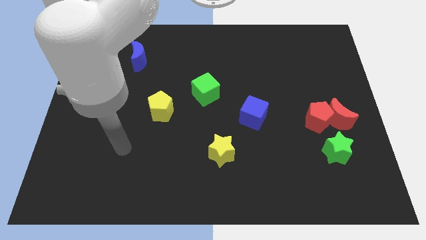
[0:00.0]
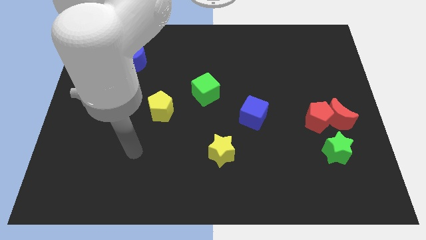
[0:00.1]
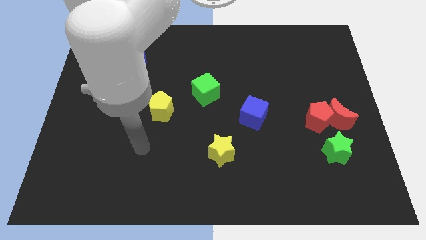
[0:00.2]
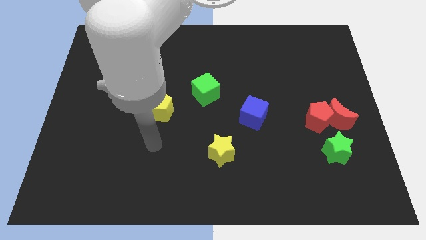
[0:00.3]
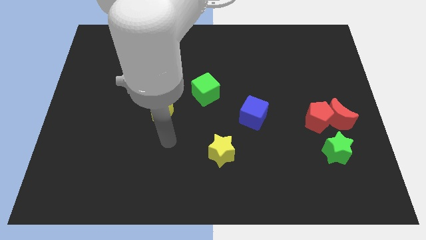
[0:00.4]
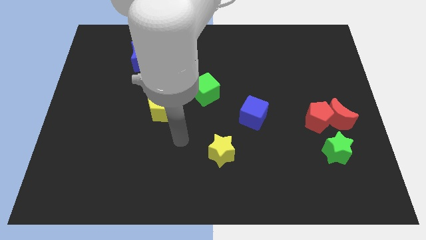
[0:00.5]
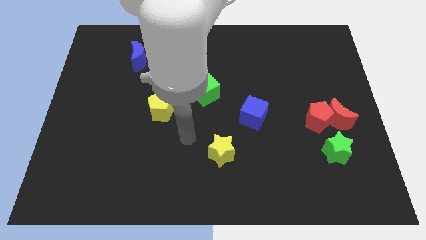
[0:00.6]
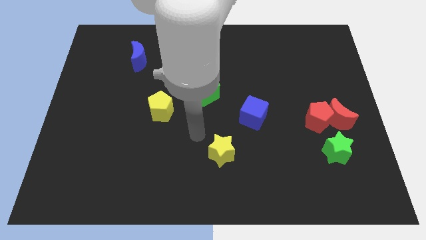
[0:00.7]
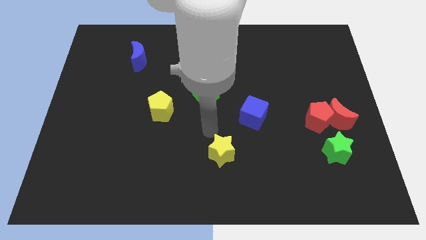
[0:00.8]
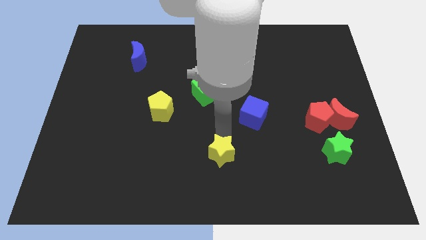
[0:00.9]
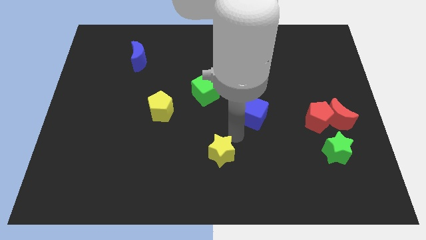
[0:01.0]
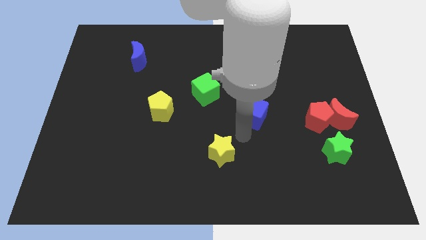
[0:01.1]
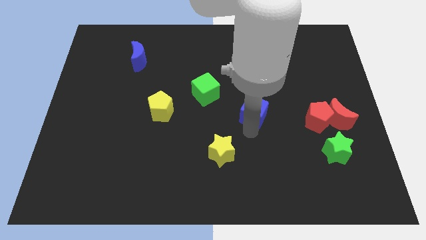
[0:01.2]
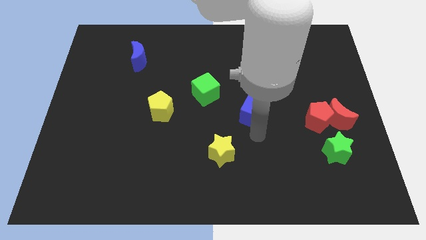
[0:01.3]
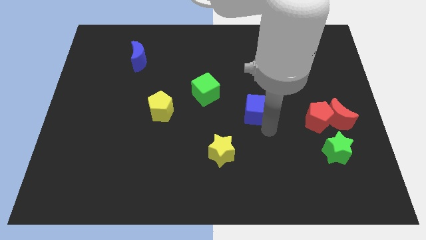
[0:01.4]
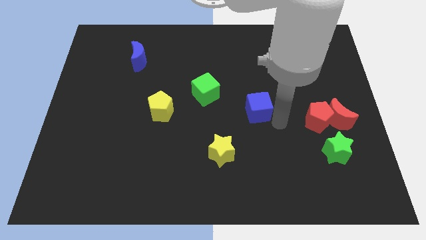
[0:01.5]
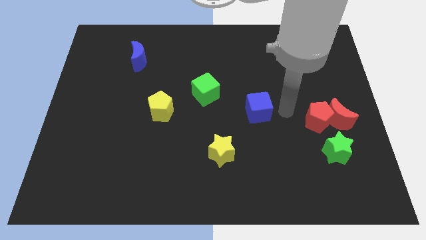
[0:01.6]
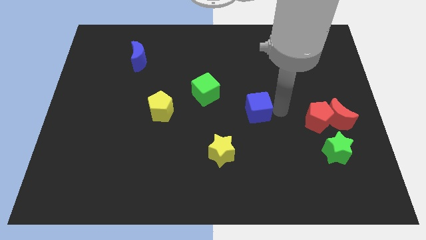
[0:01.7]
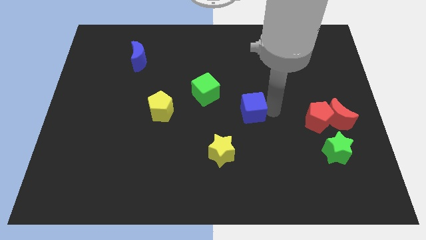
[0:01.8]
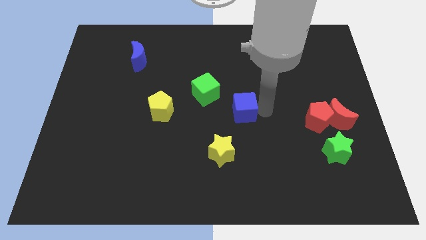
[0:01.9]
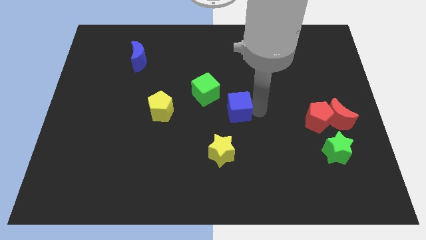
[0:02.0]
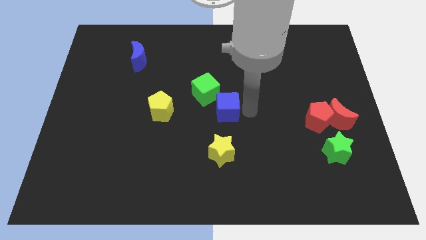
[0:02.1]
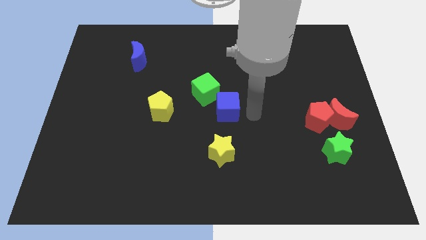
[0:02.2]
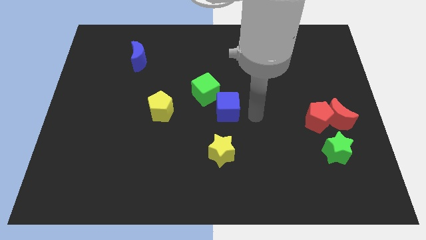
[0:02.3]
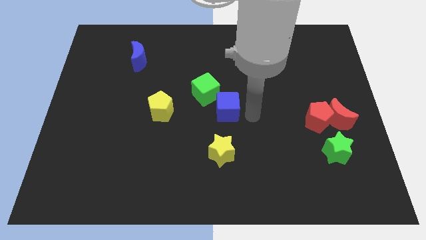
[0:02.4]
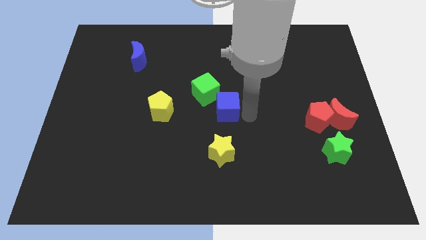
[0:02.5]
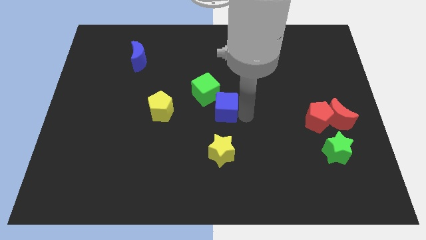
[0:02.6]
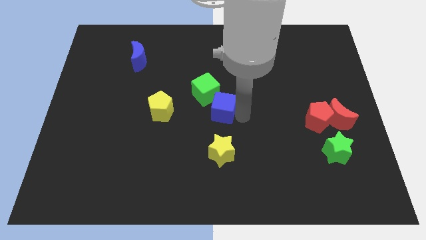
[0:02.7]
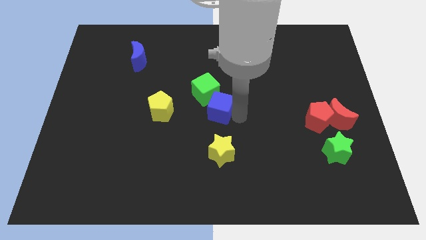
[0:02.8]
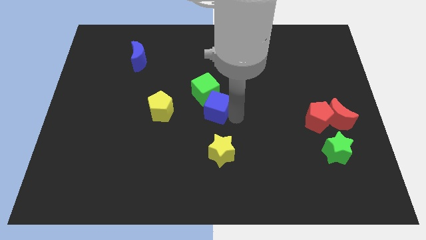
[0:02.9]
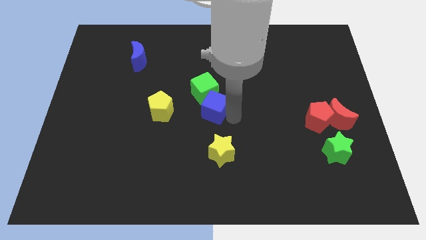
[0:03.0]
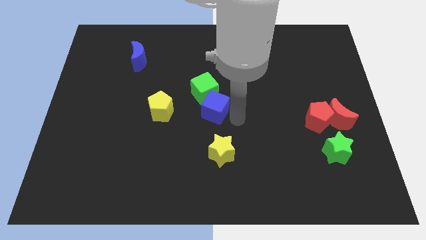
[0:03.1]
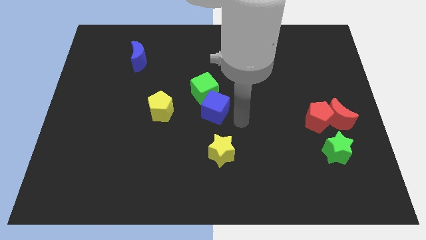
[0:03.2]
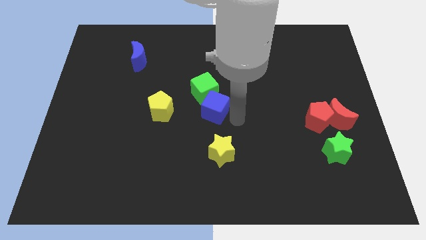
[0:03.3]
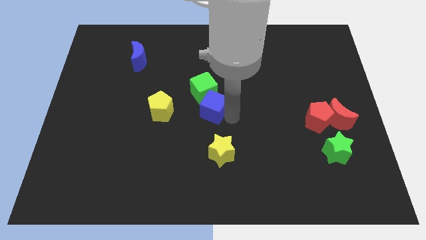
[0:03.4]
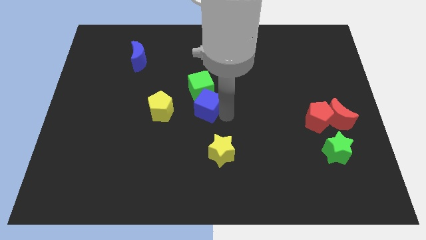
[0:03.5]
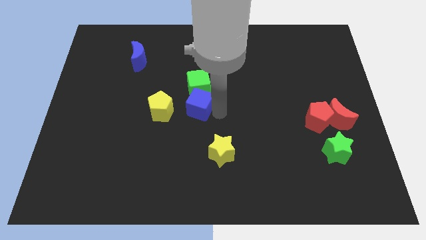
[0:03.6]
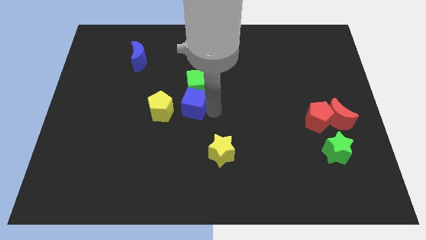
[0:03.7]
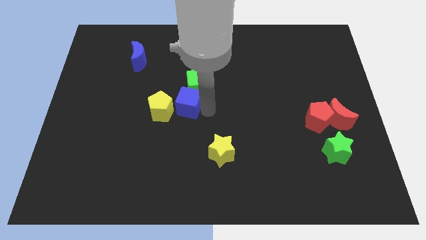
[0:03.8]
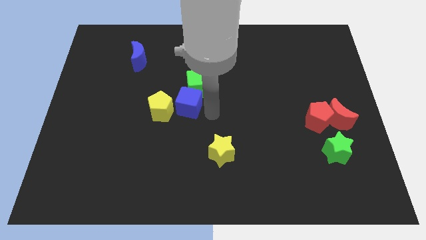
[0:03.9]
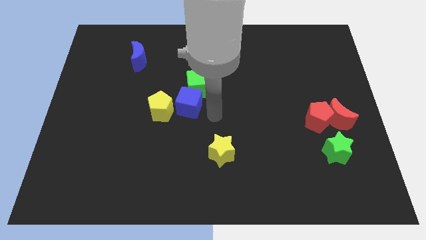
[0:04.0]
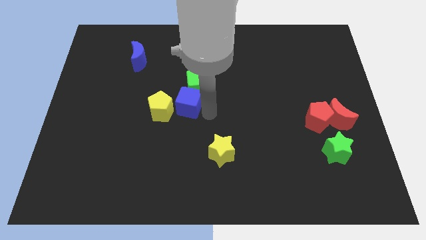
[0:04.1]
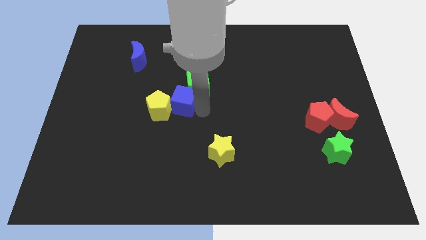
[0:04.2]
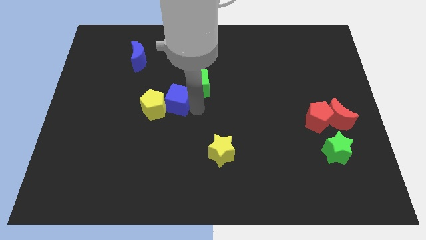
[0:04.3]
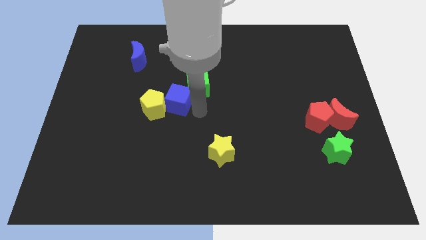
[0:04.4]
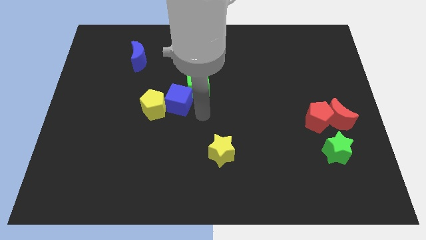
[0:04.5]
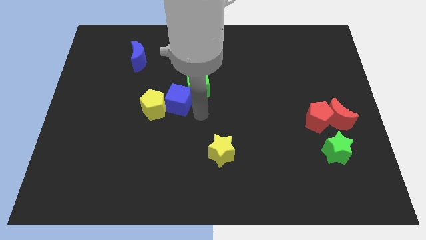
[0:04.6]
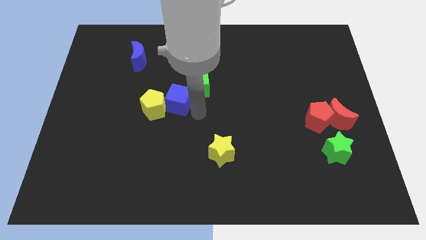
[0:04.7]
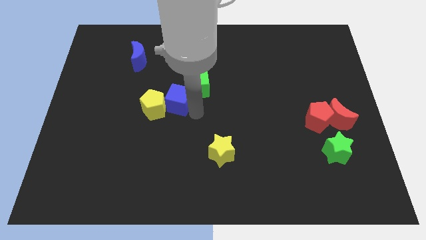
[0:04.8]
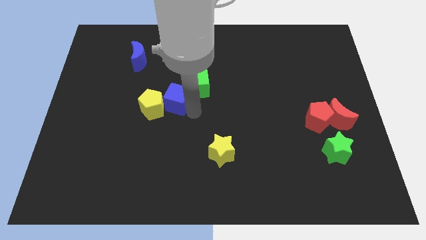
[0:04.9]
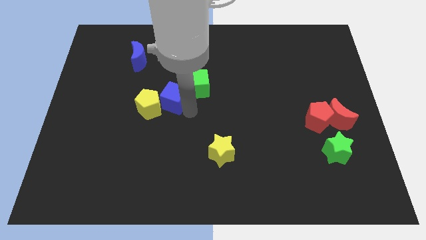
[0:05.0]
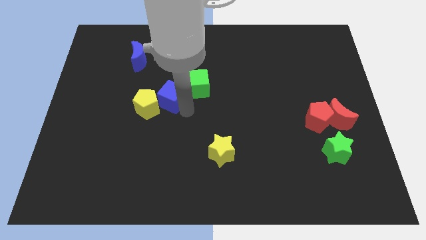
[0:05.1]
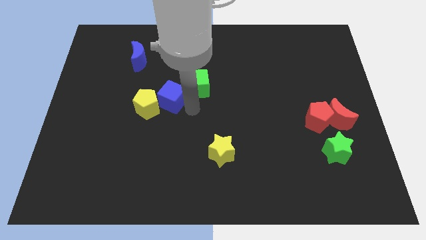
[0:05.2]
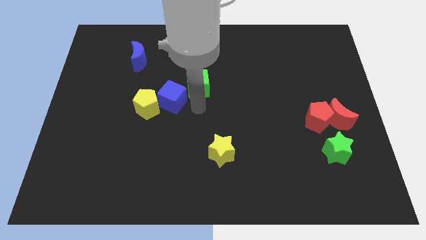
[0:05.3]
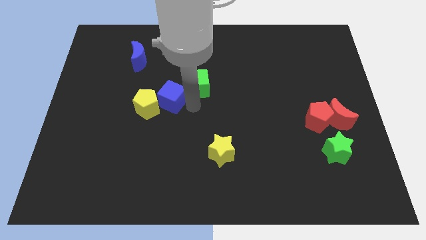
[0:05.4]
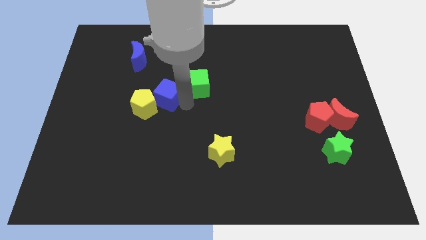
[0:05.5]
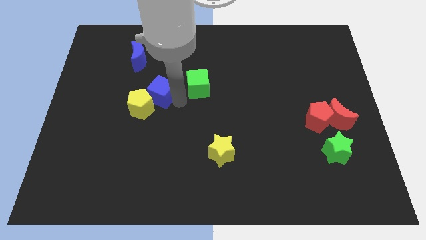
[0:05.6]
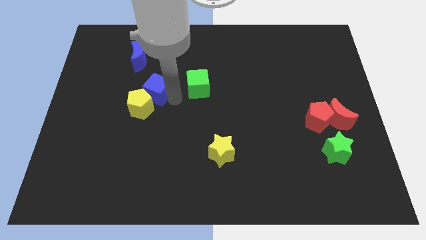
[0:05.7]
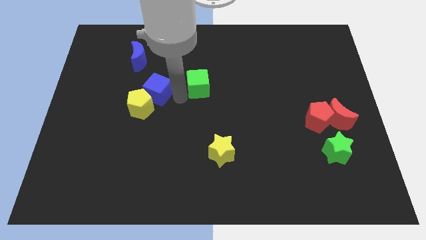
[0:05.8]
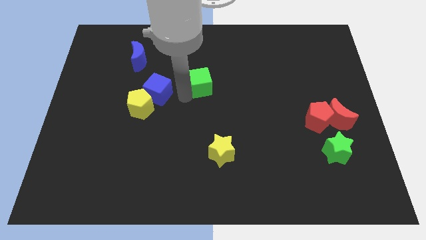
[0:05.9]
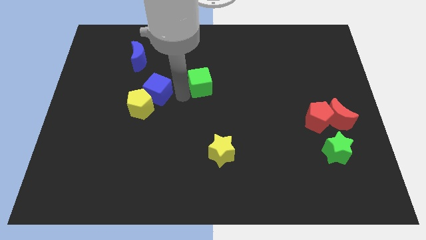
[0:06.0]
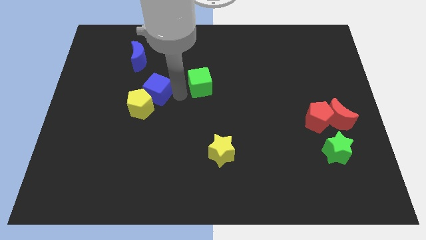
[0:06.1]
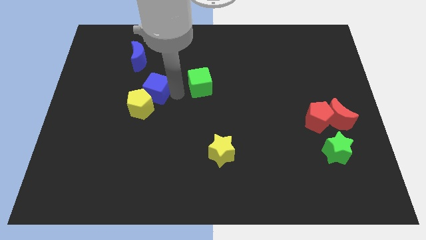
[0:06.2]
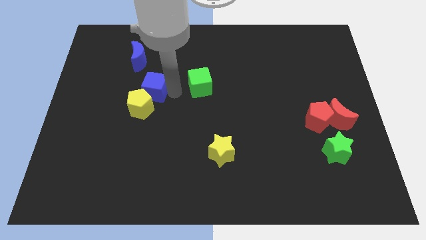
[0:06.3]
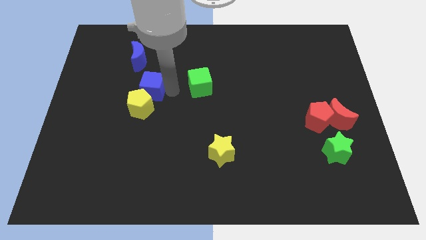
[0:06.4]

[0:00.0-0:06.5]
push the blue cube to the bottom side of the blue moon
